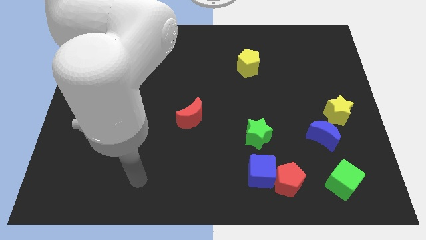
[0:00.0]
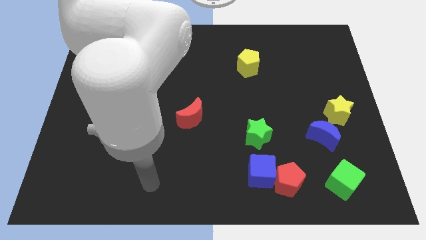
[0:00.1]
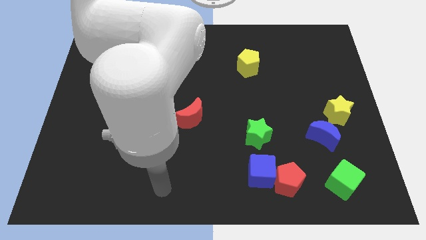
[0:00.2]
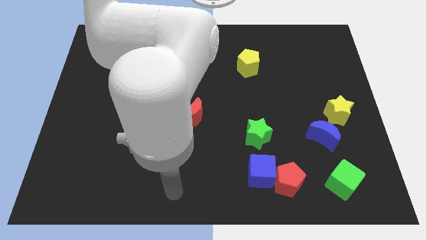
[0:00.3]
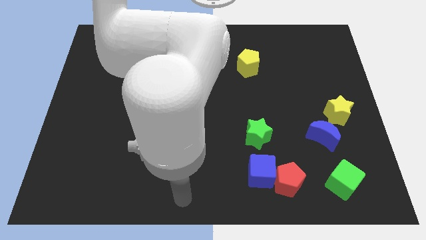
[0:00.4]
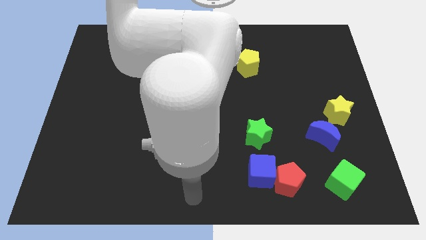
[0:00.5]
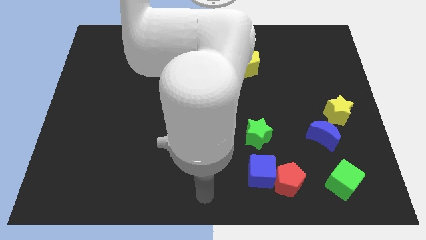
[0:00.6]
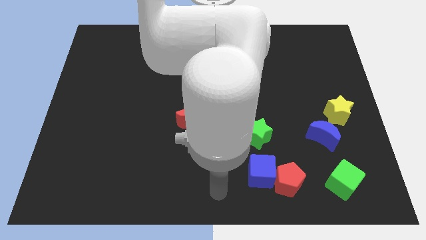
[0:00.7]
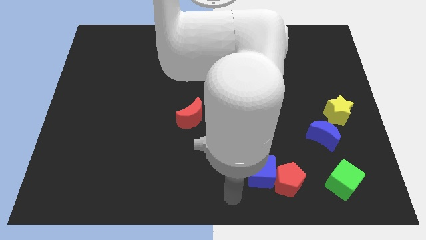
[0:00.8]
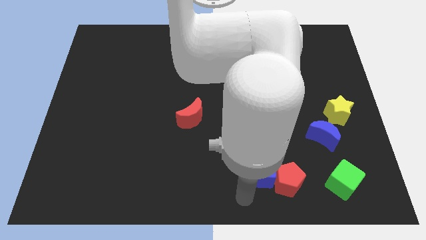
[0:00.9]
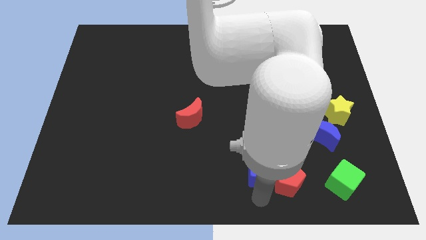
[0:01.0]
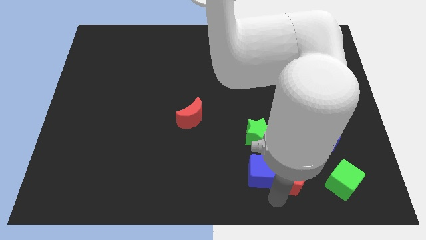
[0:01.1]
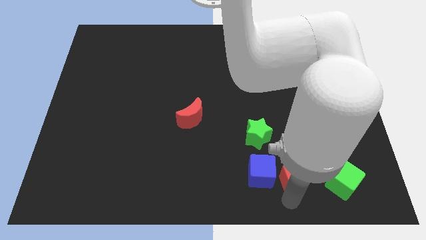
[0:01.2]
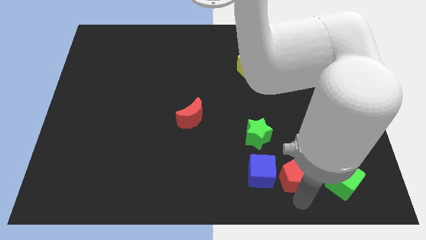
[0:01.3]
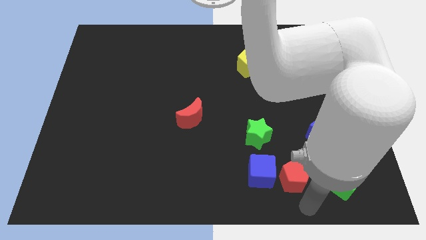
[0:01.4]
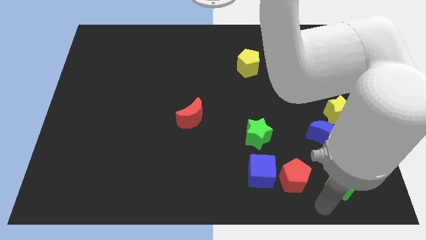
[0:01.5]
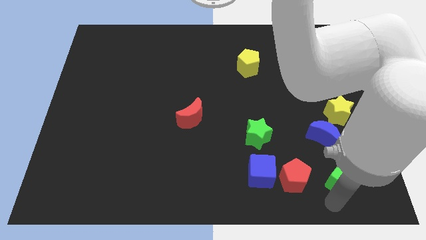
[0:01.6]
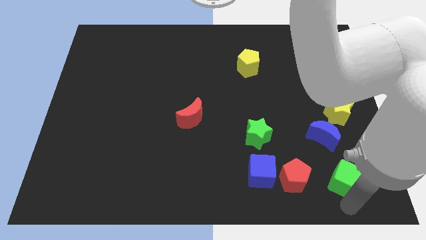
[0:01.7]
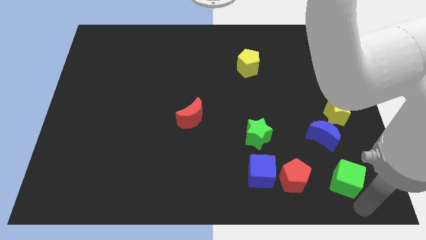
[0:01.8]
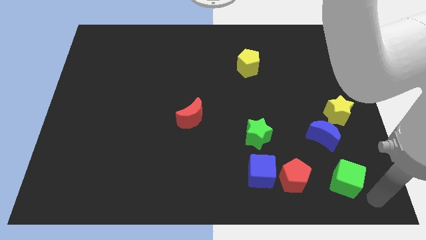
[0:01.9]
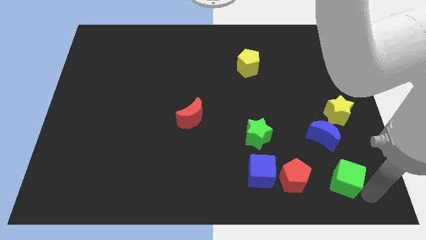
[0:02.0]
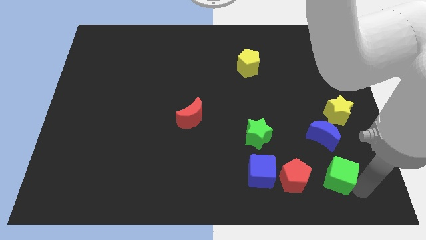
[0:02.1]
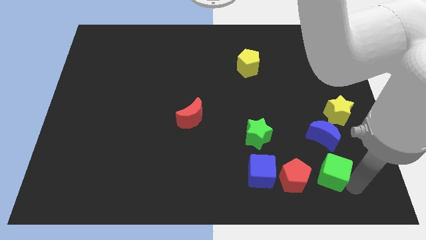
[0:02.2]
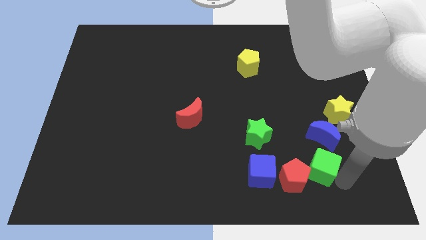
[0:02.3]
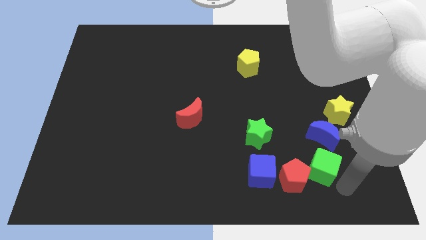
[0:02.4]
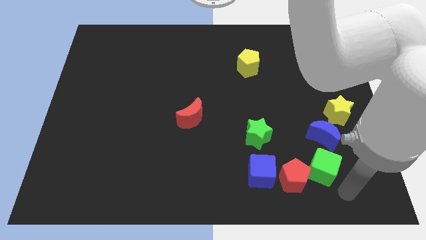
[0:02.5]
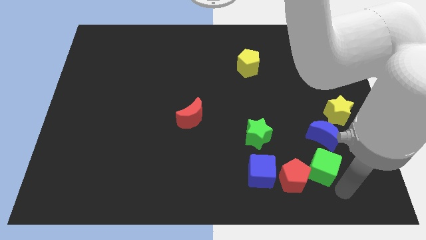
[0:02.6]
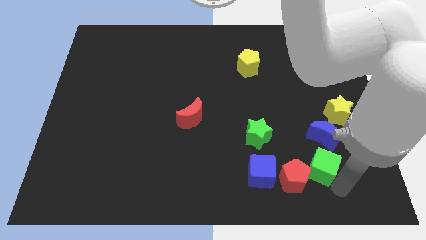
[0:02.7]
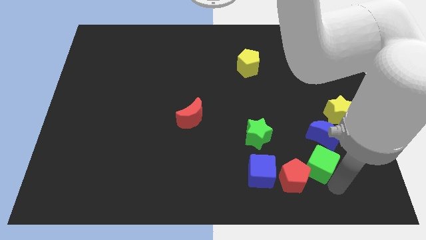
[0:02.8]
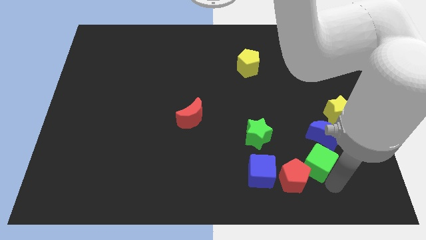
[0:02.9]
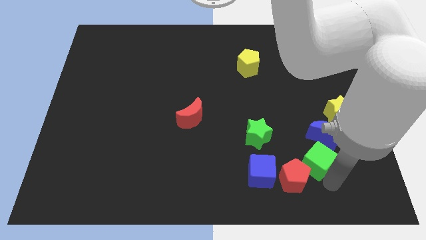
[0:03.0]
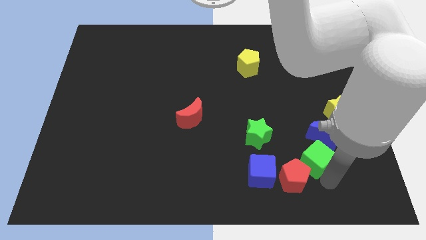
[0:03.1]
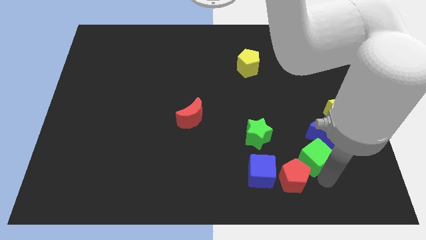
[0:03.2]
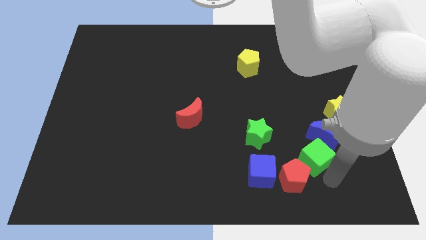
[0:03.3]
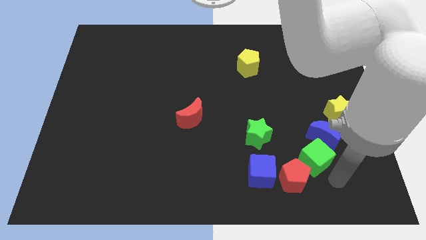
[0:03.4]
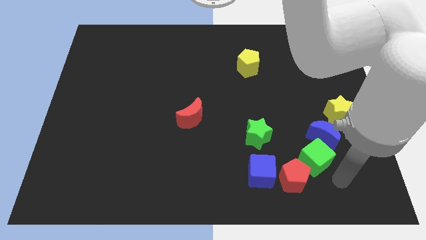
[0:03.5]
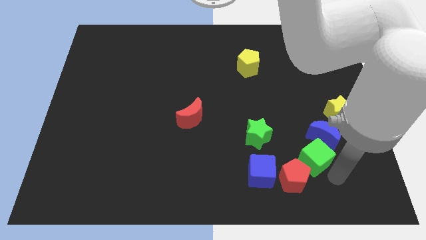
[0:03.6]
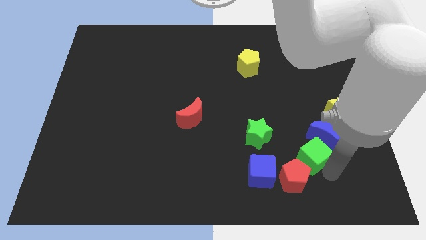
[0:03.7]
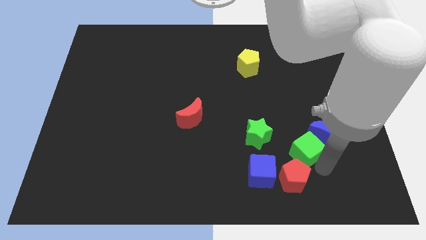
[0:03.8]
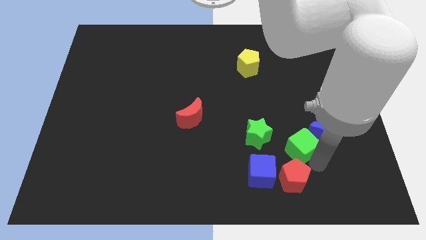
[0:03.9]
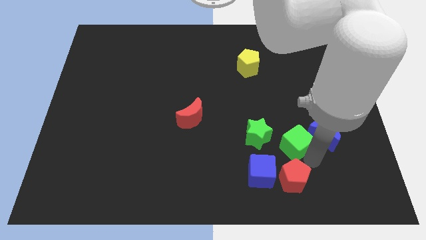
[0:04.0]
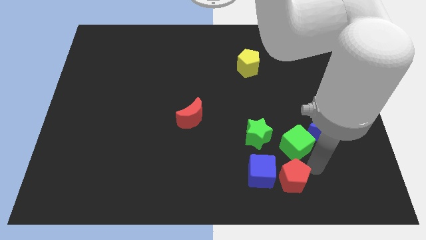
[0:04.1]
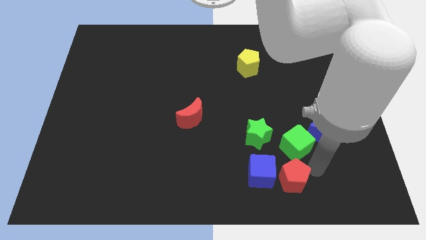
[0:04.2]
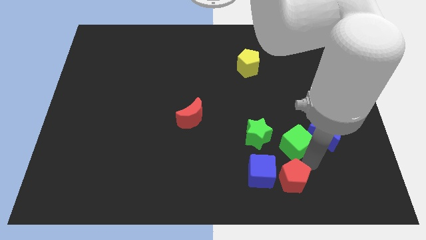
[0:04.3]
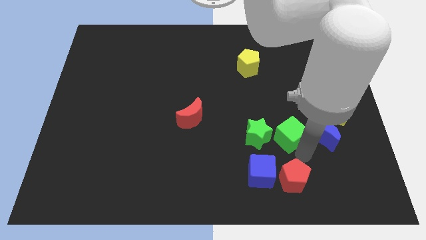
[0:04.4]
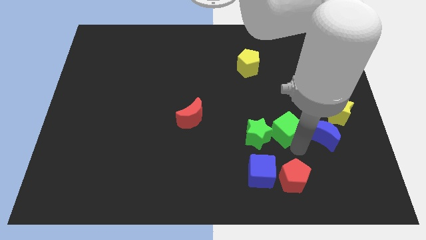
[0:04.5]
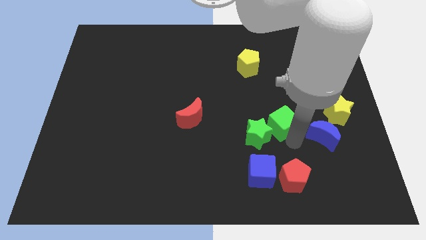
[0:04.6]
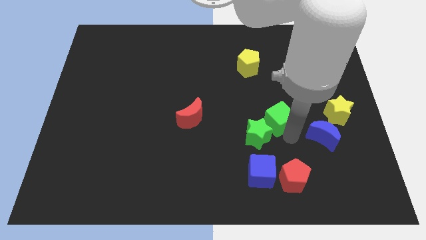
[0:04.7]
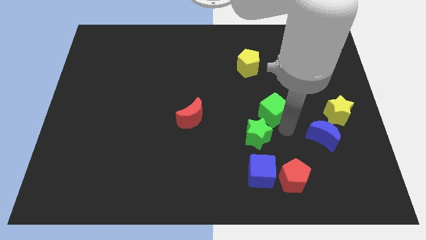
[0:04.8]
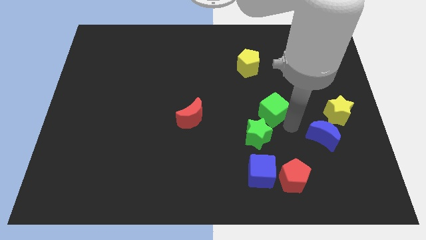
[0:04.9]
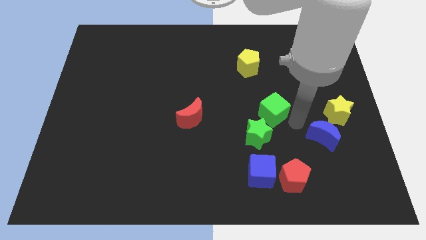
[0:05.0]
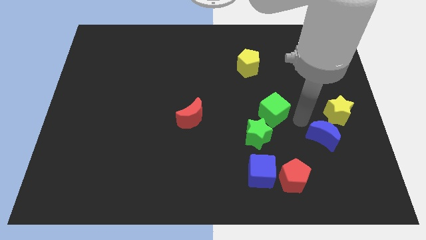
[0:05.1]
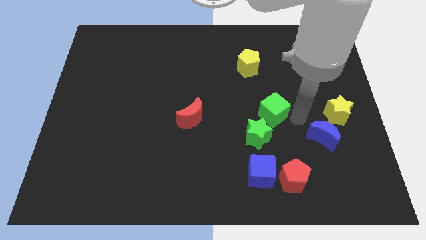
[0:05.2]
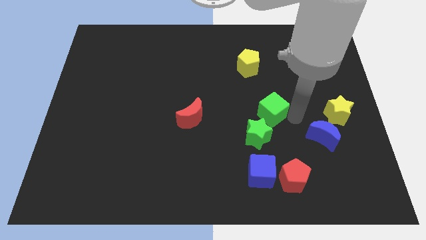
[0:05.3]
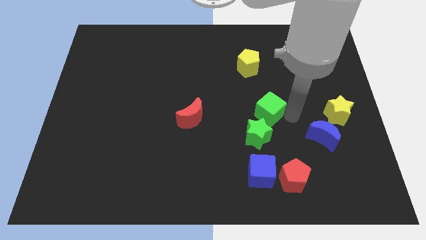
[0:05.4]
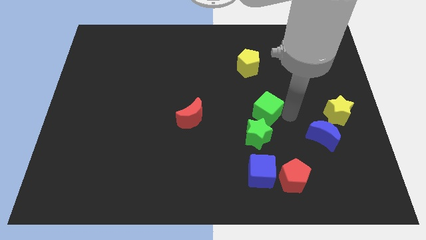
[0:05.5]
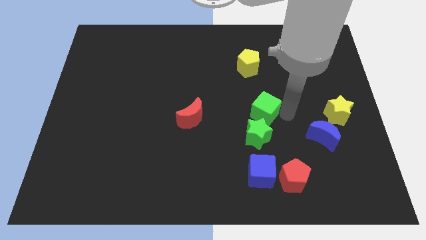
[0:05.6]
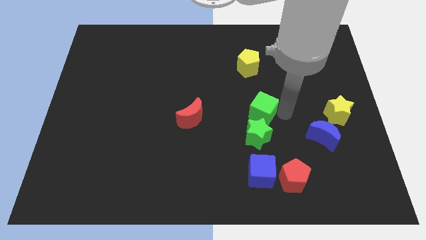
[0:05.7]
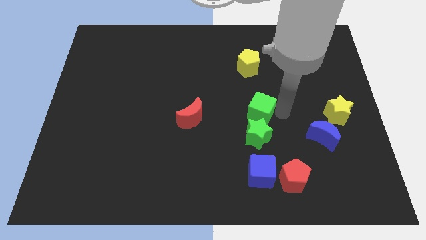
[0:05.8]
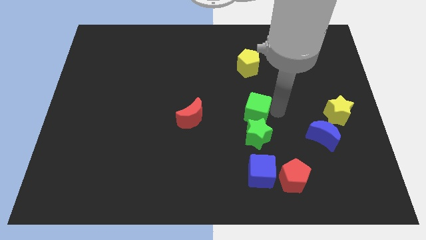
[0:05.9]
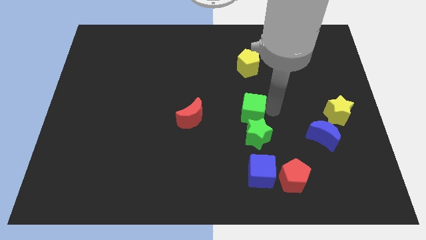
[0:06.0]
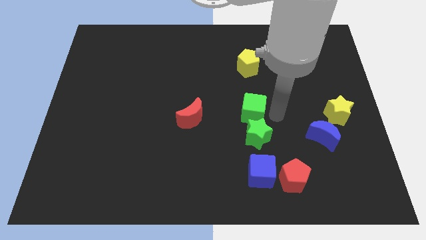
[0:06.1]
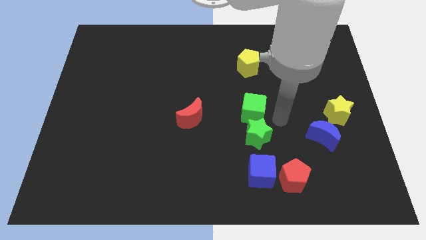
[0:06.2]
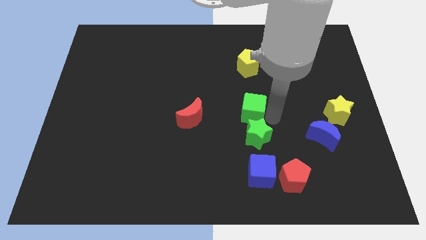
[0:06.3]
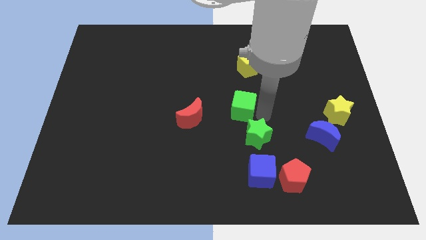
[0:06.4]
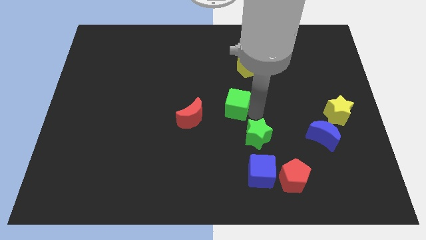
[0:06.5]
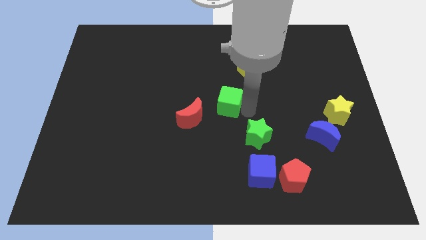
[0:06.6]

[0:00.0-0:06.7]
slide the green cube to the top right side of the red moon

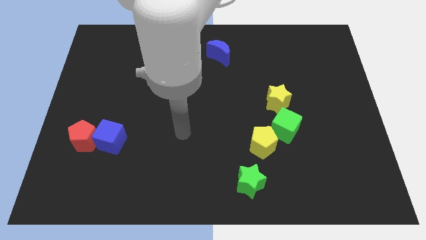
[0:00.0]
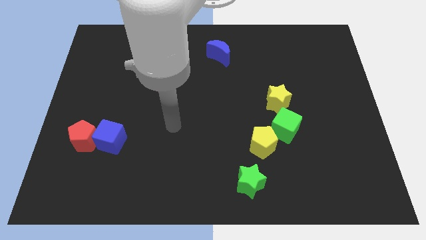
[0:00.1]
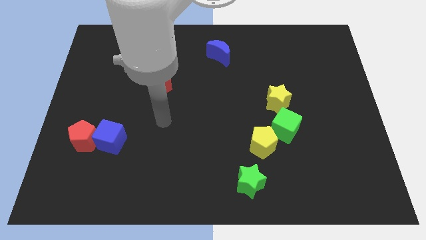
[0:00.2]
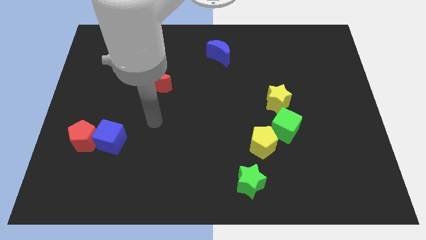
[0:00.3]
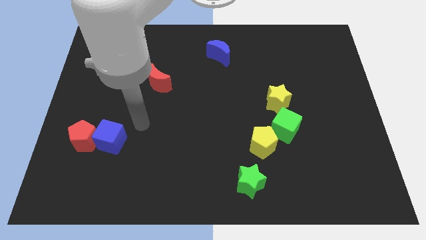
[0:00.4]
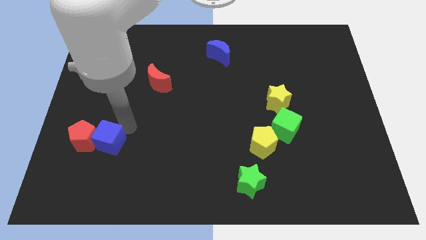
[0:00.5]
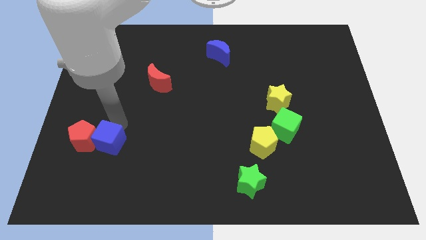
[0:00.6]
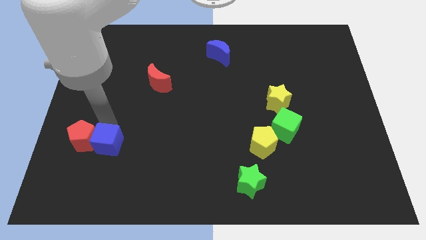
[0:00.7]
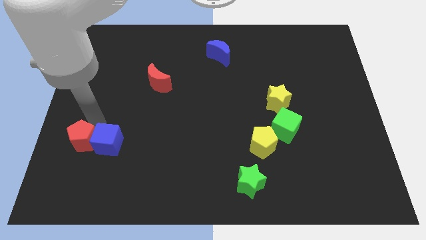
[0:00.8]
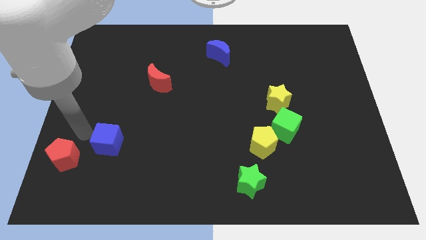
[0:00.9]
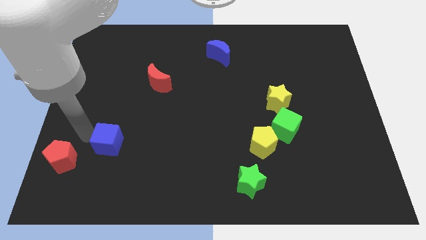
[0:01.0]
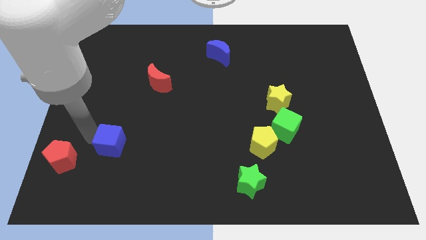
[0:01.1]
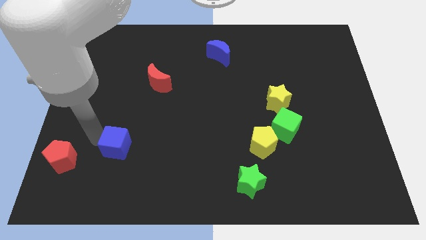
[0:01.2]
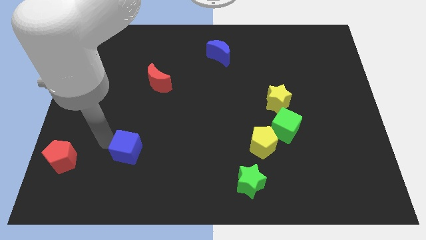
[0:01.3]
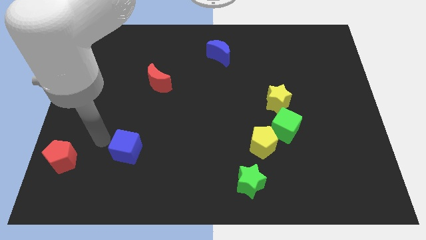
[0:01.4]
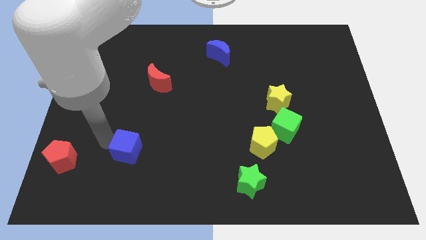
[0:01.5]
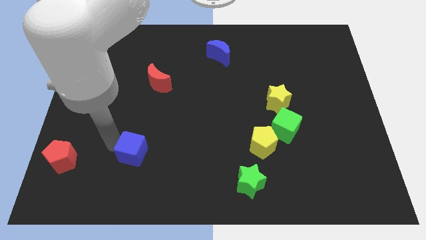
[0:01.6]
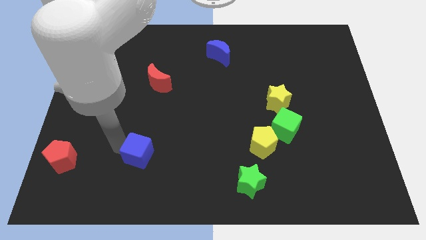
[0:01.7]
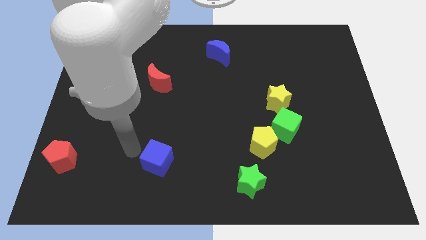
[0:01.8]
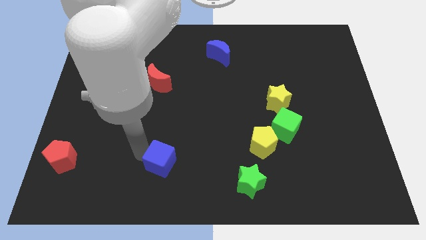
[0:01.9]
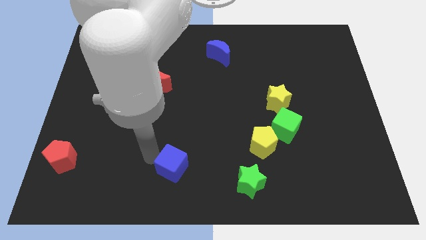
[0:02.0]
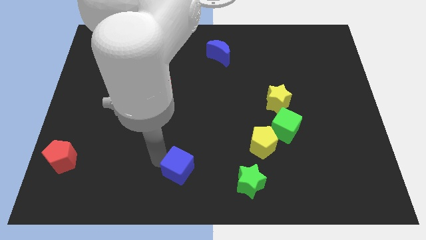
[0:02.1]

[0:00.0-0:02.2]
put the blue cube left of the green star
